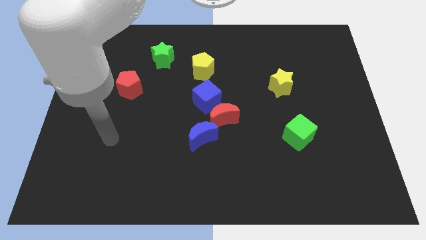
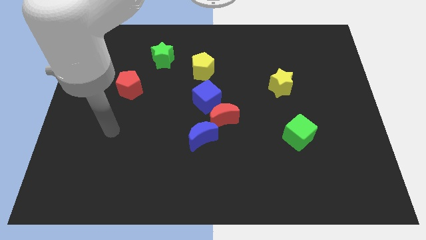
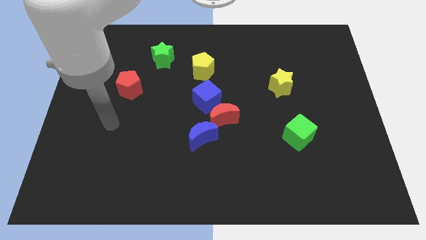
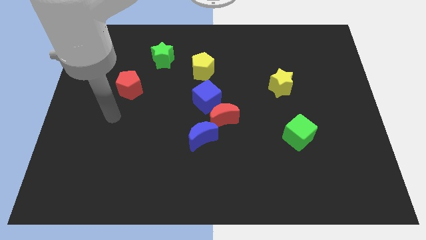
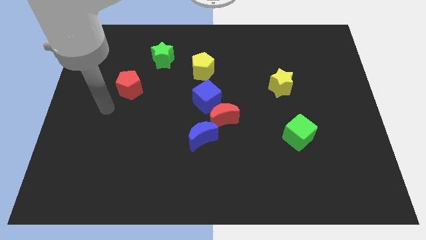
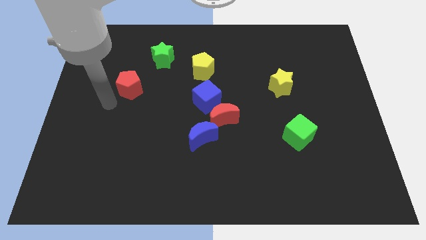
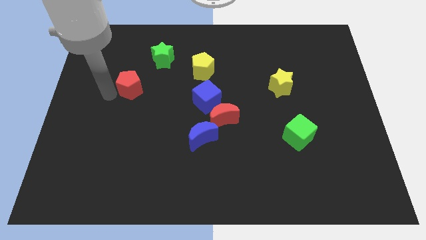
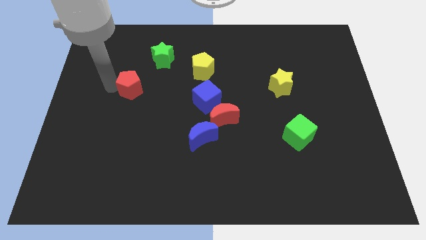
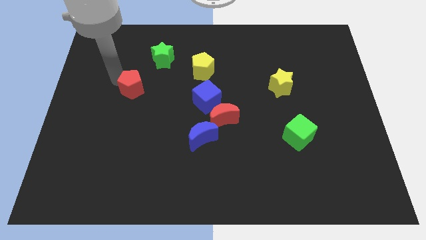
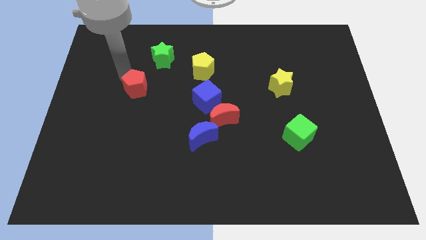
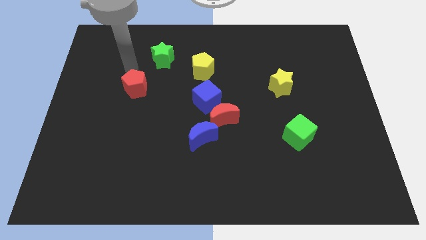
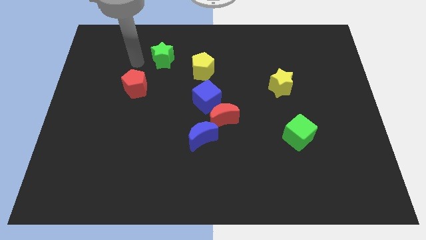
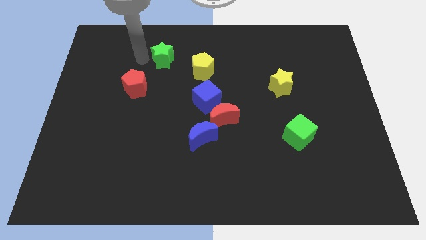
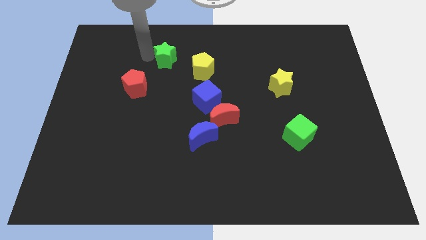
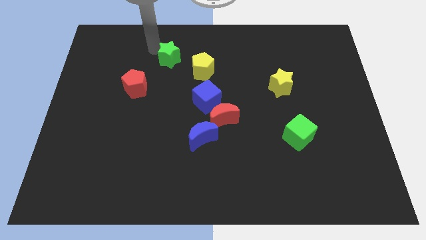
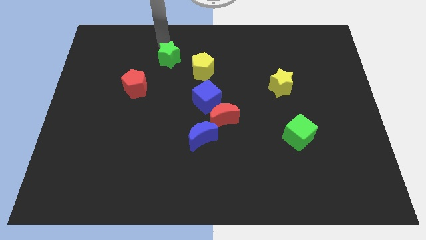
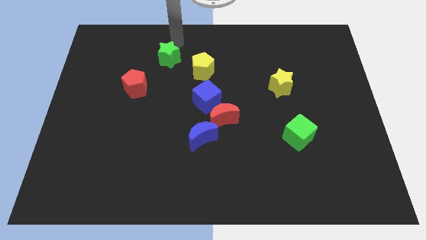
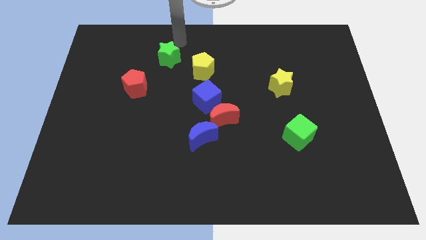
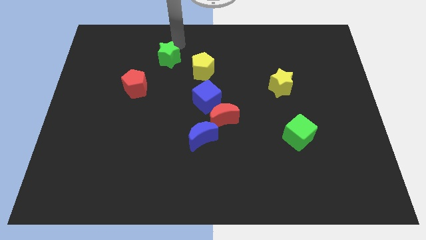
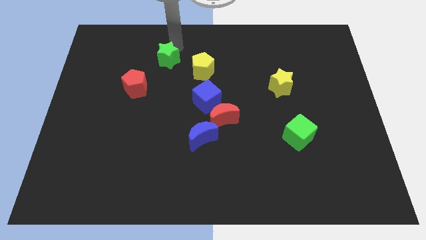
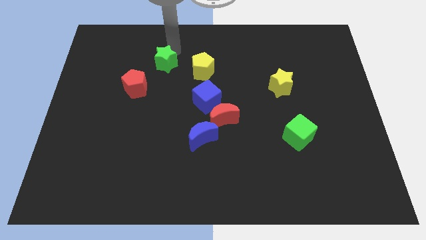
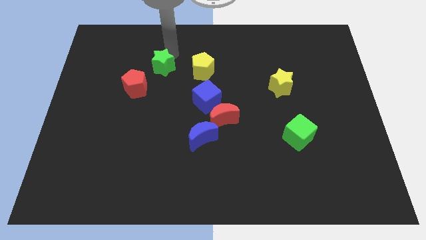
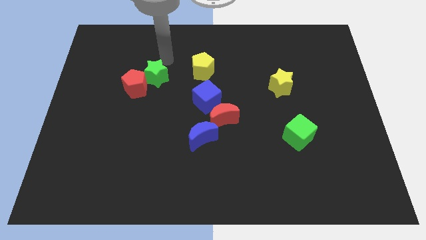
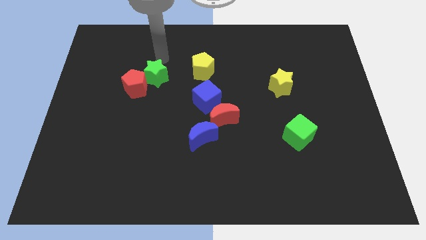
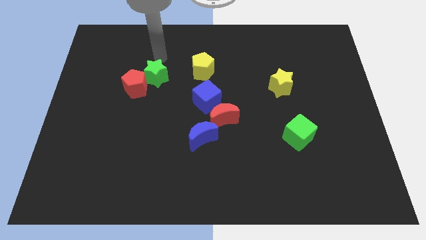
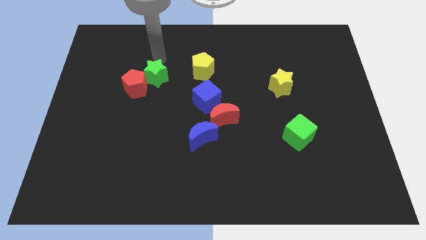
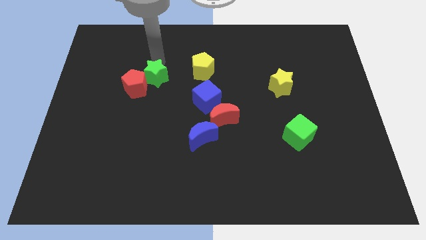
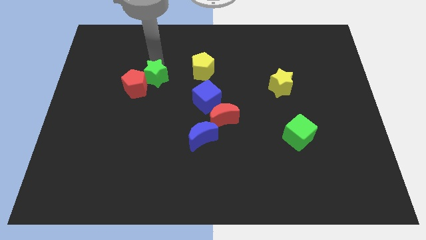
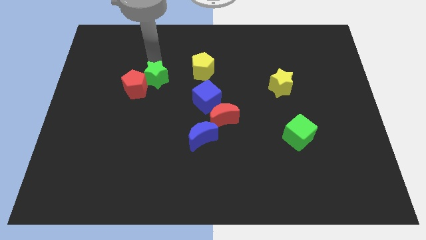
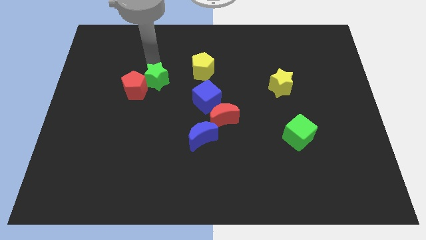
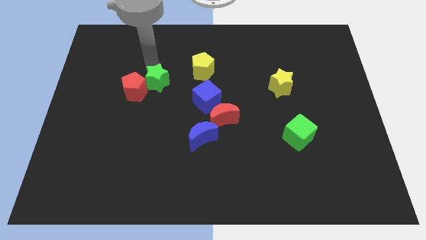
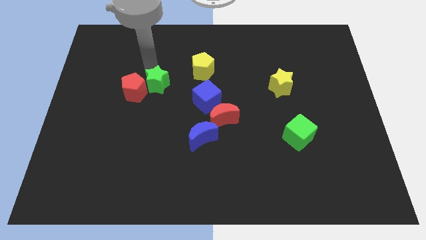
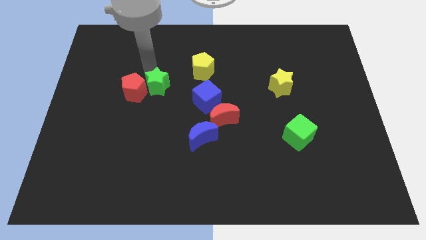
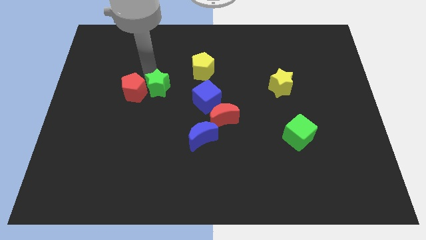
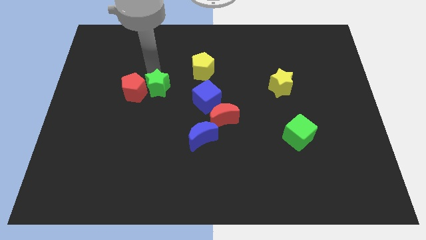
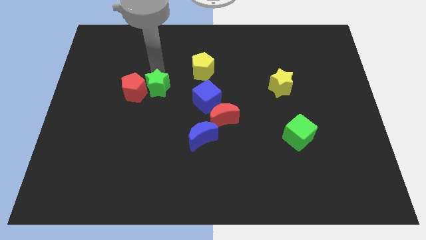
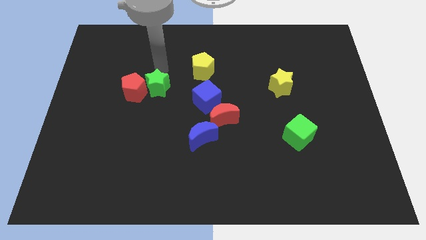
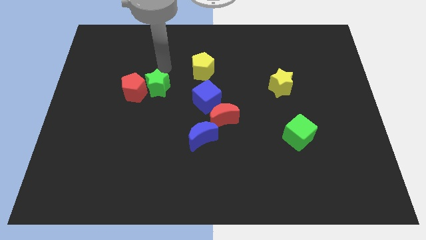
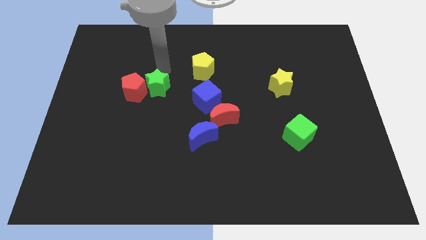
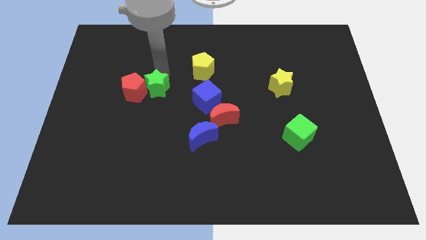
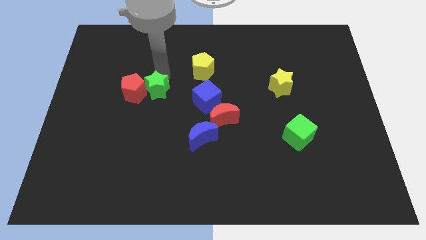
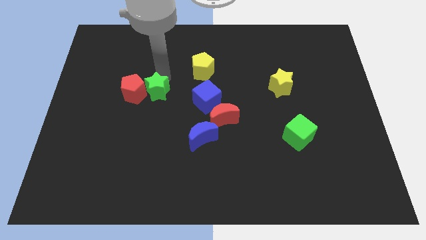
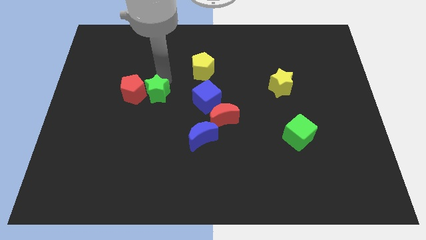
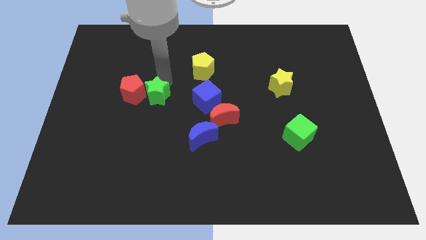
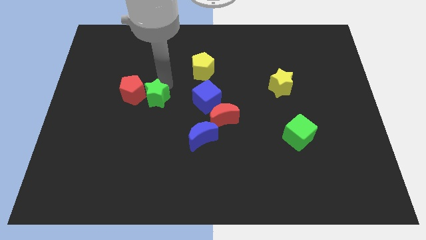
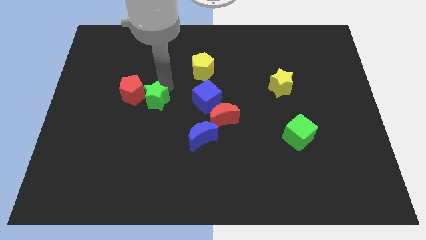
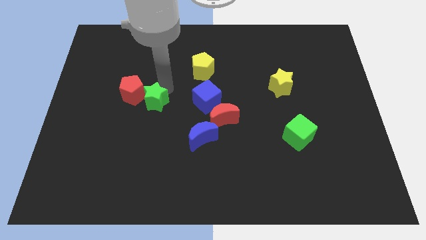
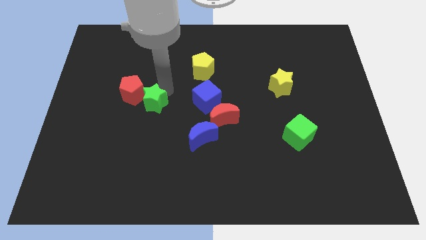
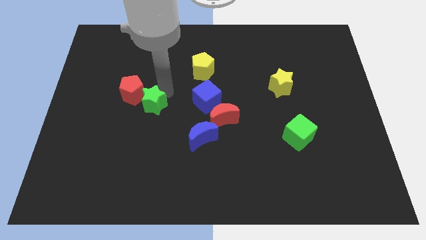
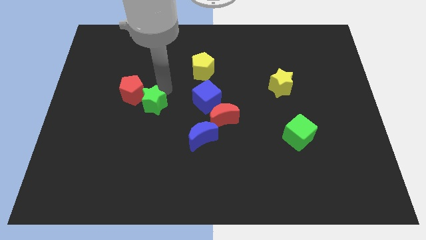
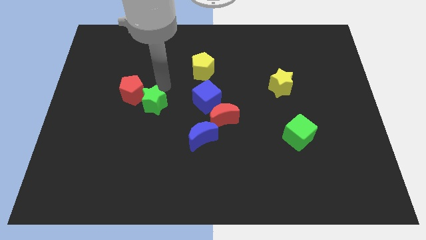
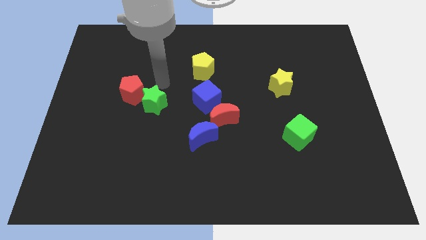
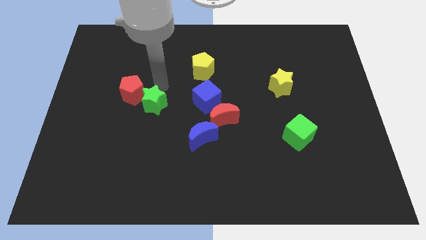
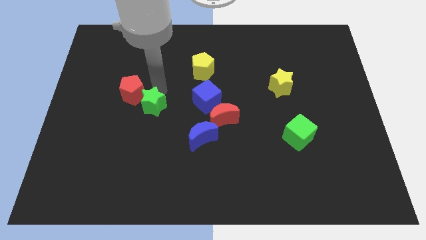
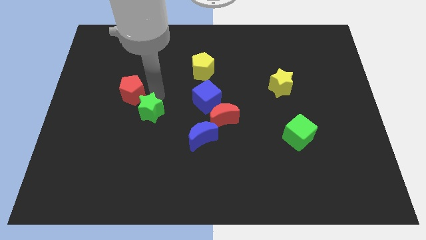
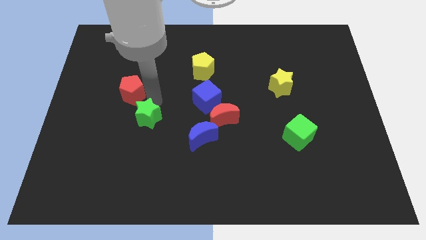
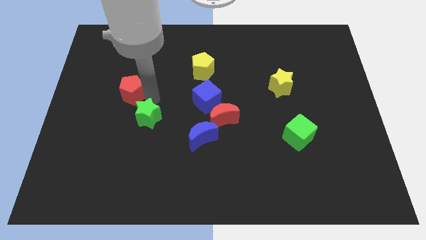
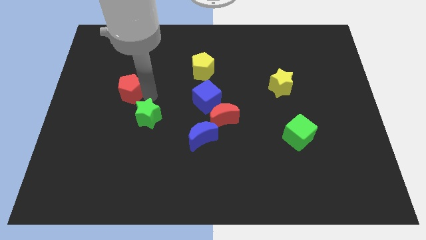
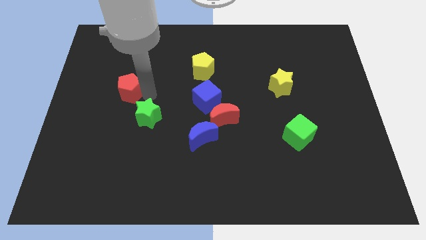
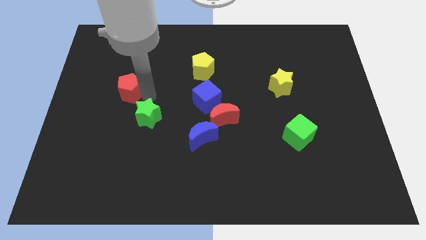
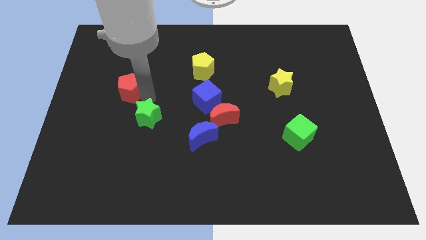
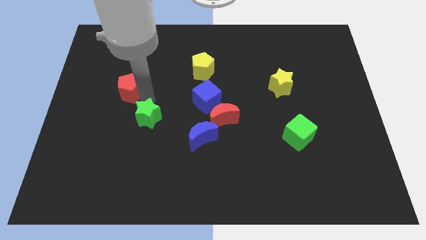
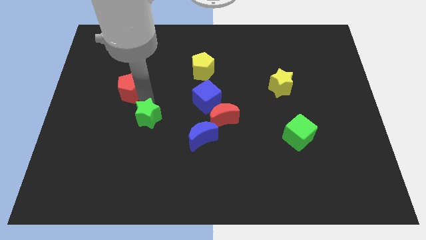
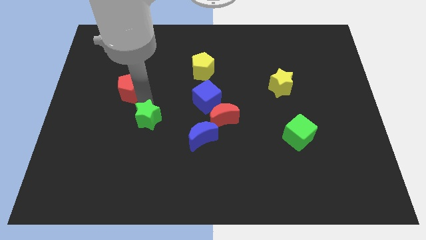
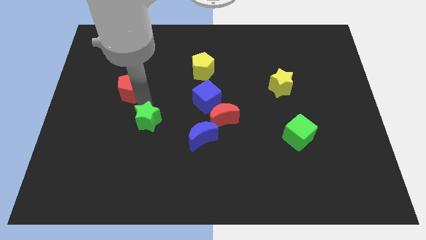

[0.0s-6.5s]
move the green star down

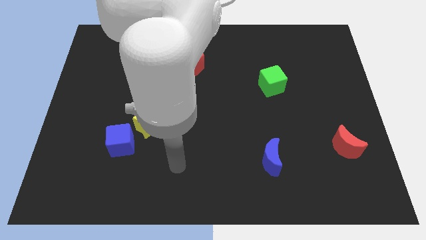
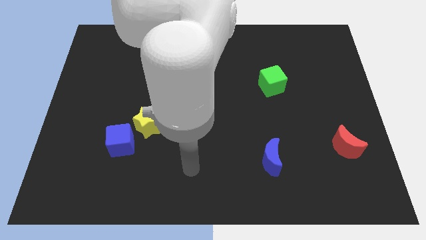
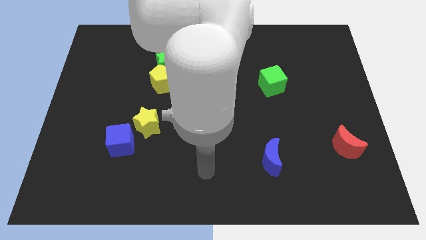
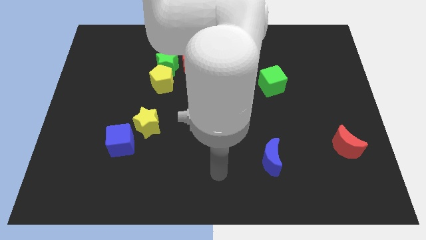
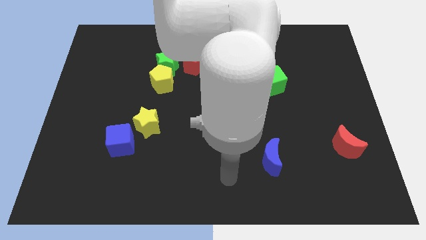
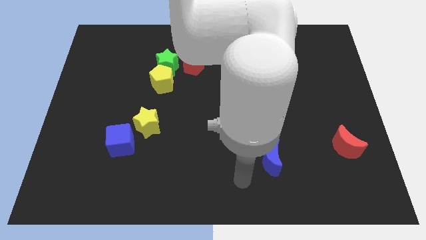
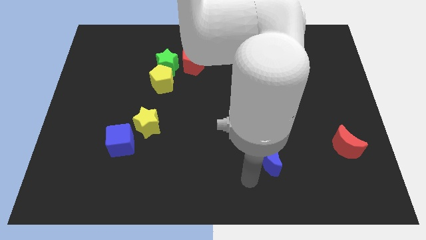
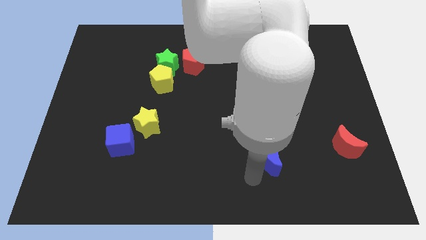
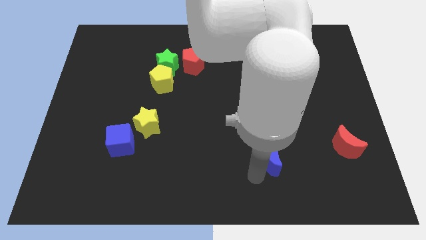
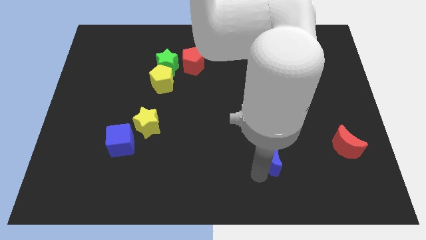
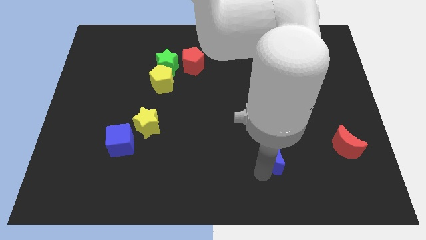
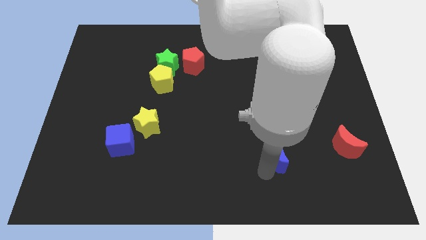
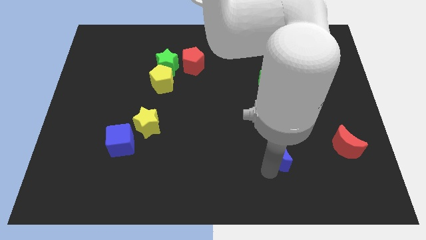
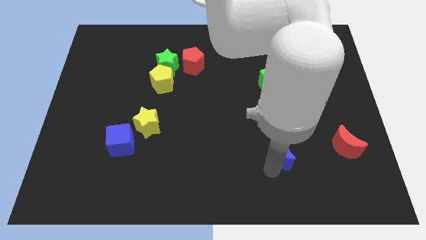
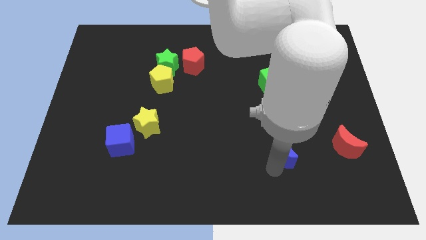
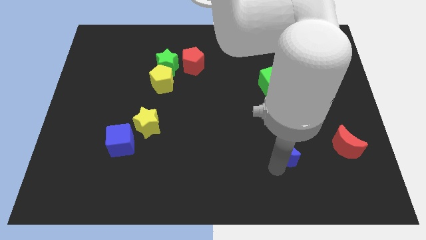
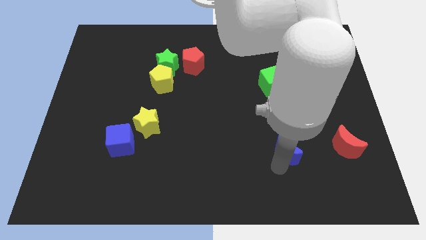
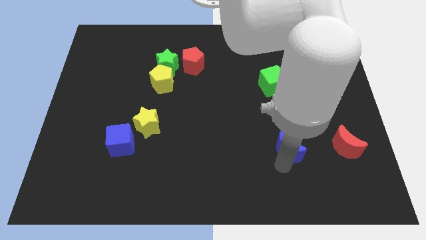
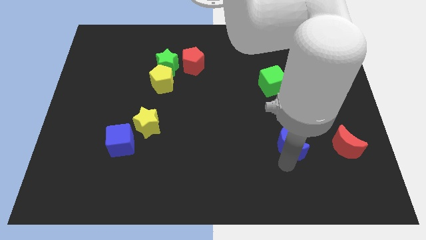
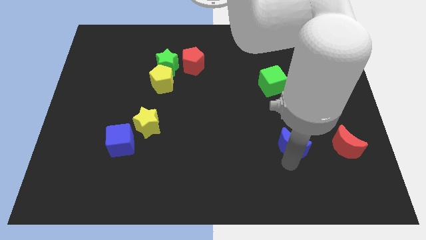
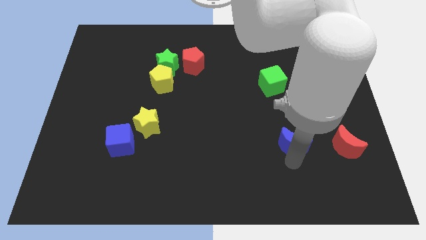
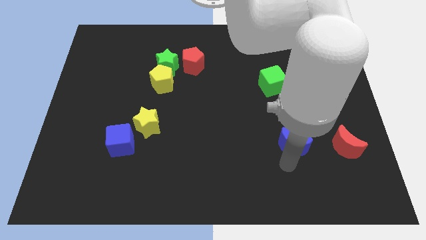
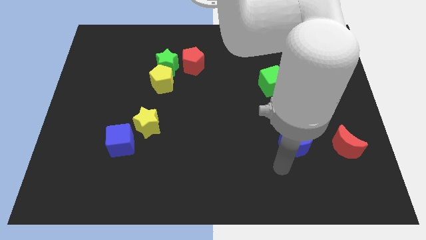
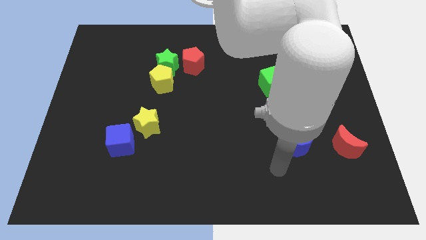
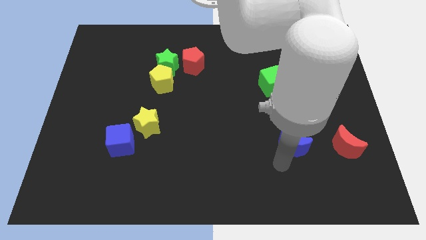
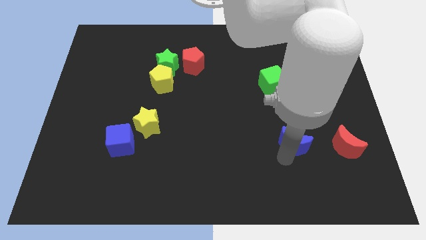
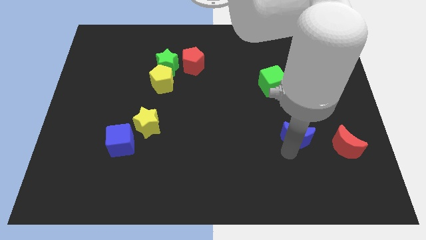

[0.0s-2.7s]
slide the blue moon diagonally upwards and to the right a little bit
